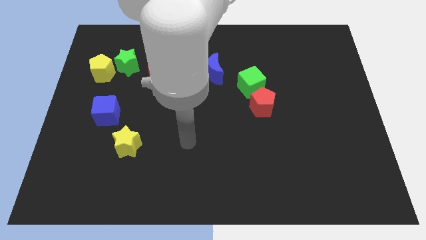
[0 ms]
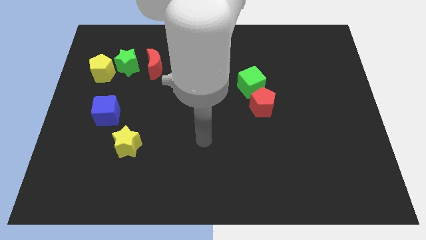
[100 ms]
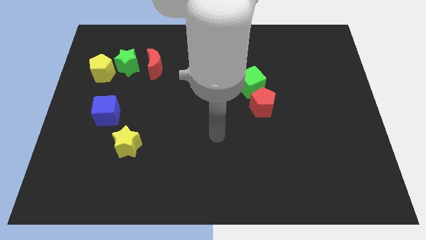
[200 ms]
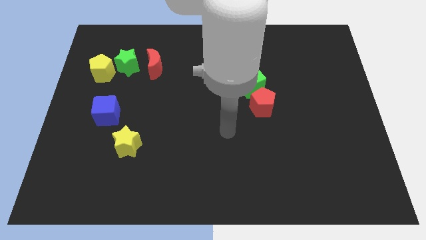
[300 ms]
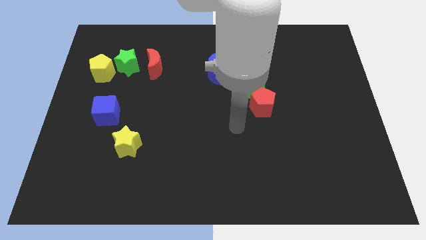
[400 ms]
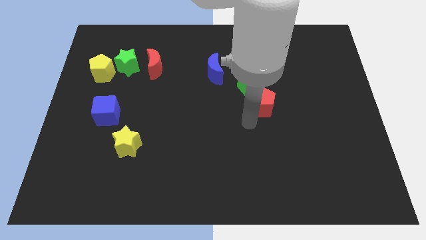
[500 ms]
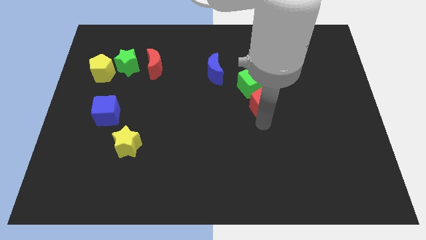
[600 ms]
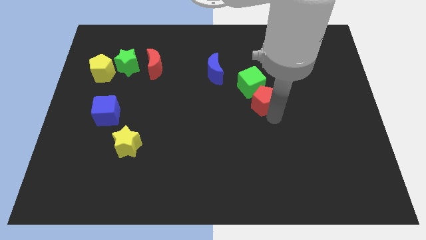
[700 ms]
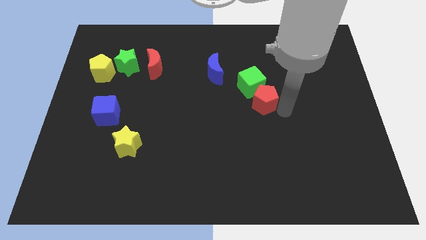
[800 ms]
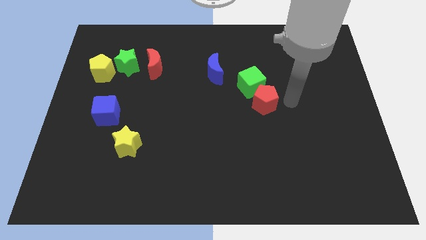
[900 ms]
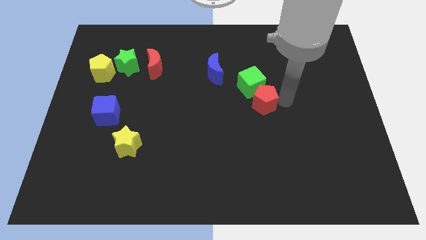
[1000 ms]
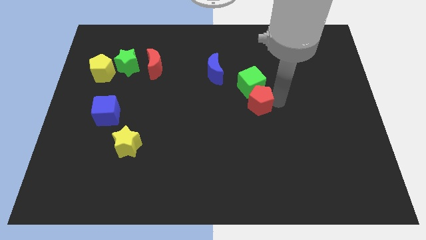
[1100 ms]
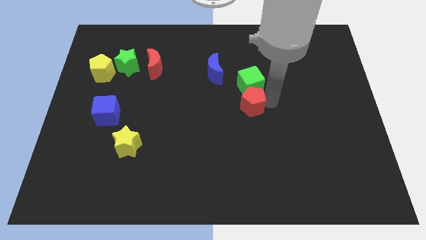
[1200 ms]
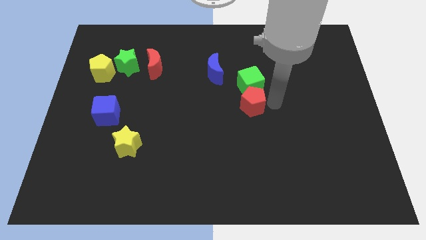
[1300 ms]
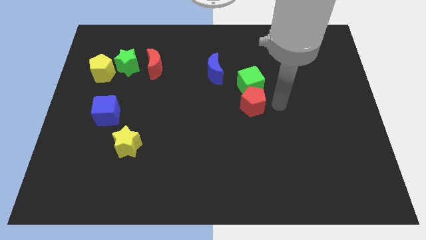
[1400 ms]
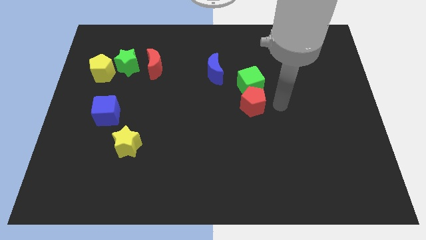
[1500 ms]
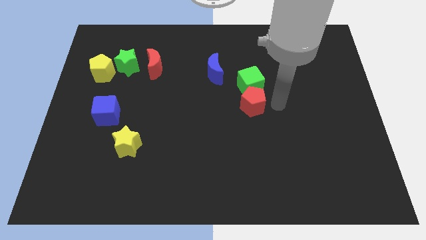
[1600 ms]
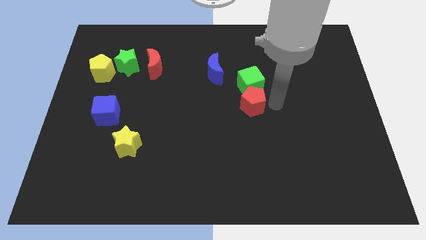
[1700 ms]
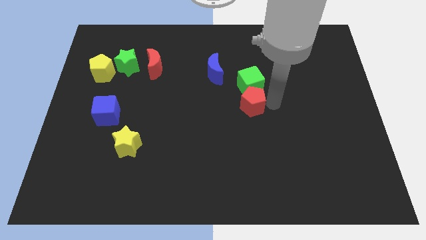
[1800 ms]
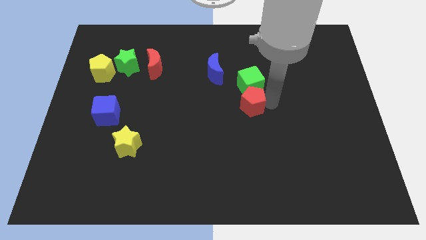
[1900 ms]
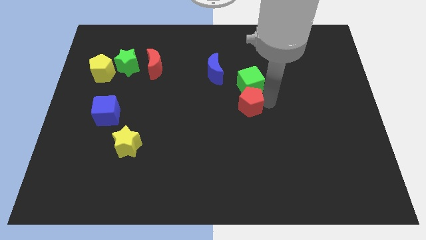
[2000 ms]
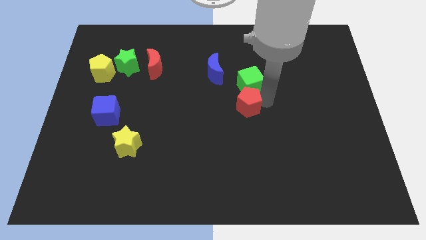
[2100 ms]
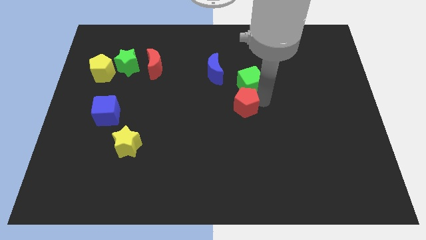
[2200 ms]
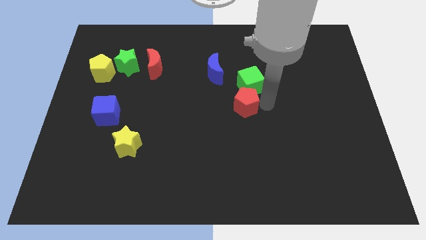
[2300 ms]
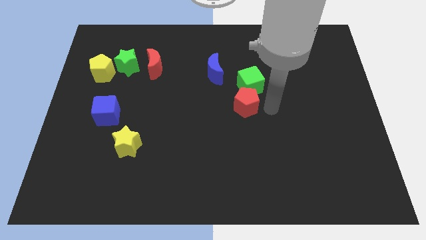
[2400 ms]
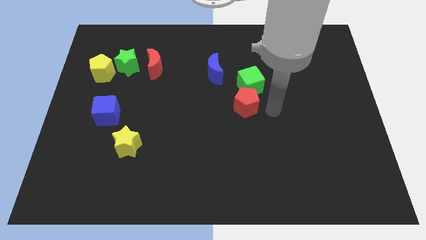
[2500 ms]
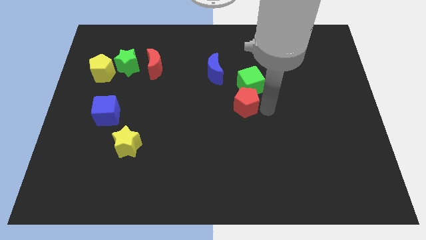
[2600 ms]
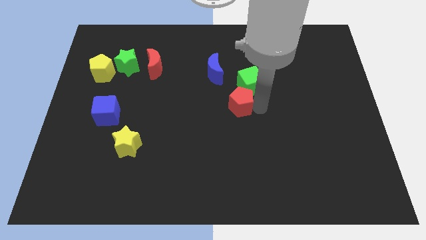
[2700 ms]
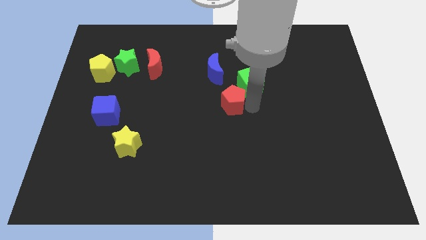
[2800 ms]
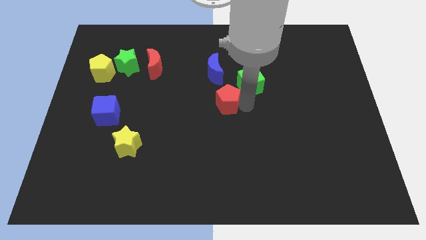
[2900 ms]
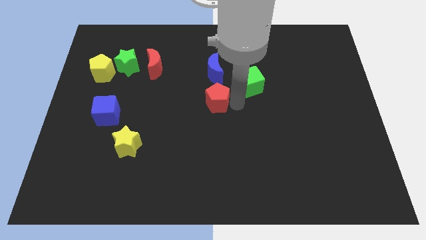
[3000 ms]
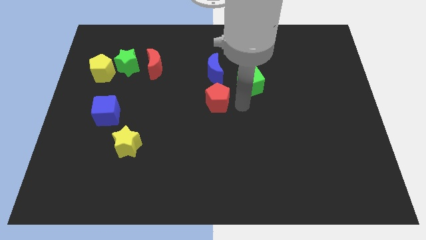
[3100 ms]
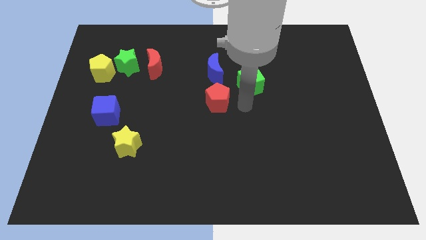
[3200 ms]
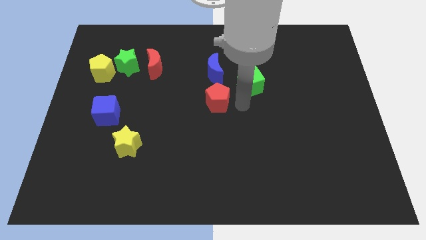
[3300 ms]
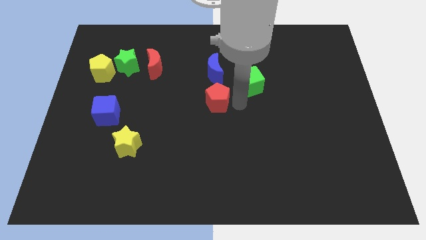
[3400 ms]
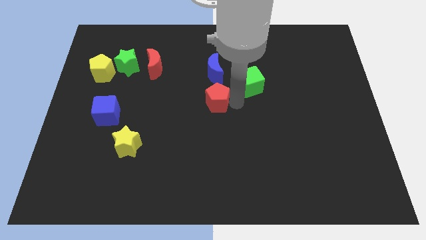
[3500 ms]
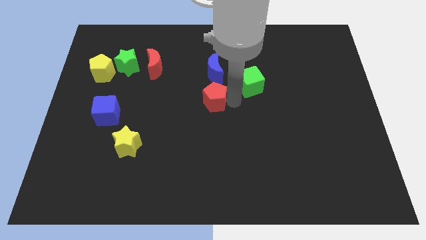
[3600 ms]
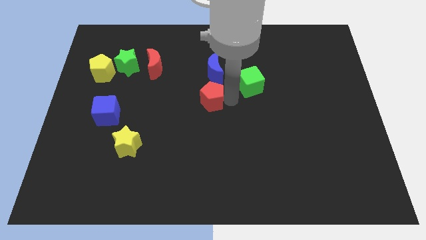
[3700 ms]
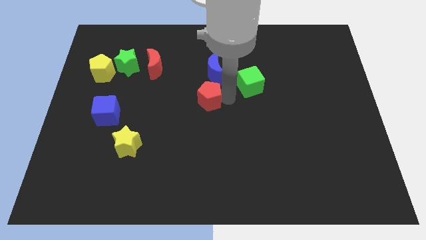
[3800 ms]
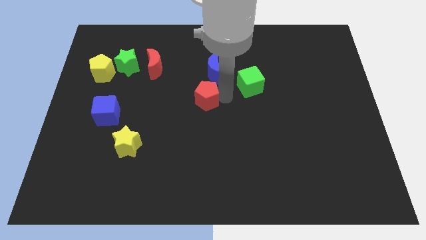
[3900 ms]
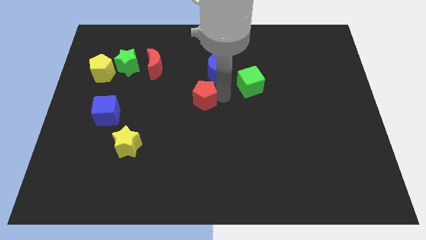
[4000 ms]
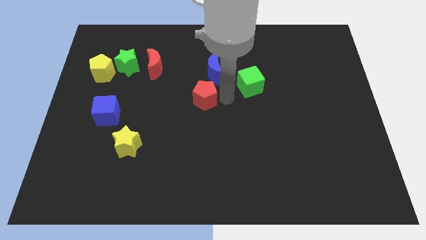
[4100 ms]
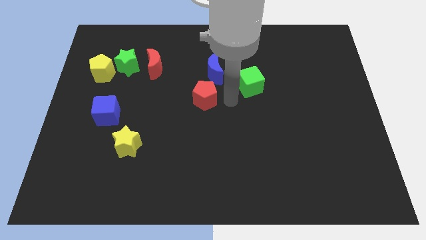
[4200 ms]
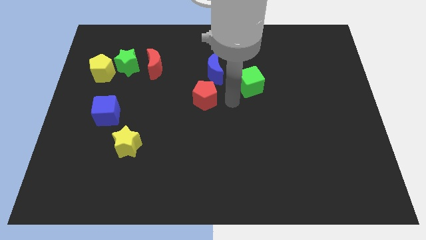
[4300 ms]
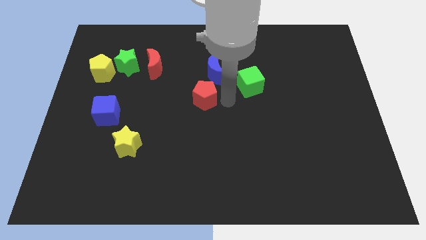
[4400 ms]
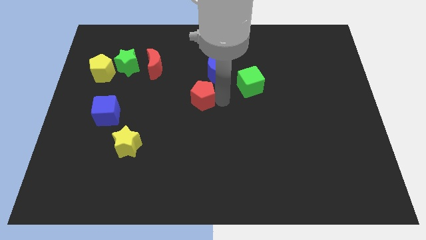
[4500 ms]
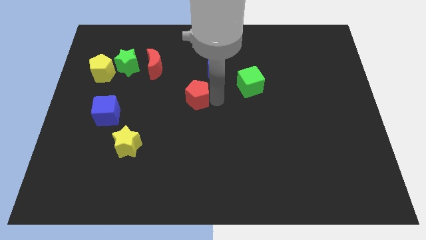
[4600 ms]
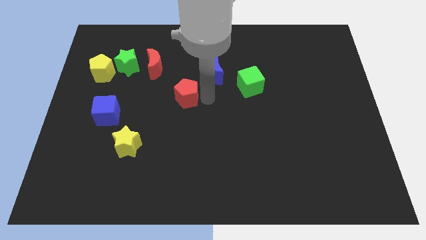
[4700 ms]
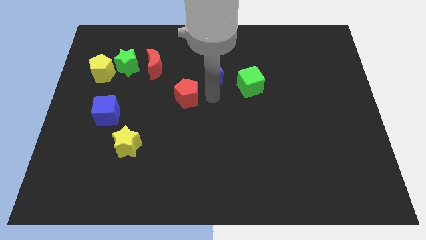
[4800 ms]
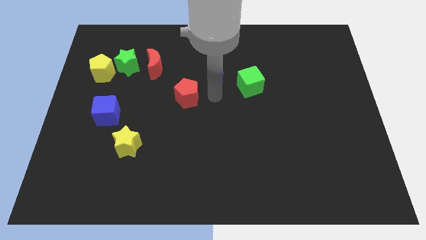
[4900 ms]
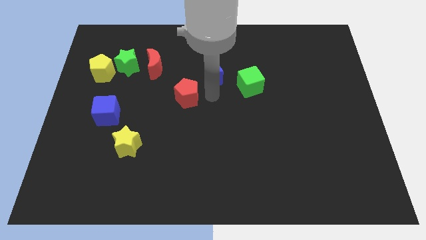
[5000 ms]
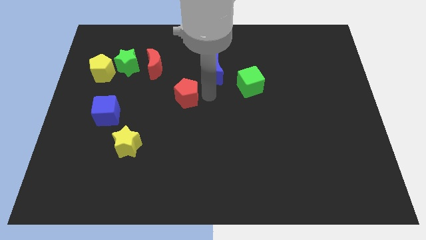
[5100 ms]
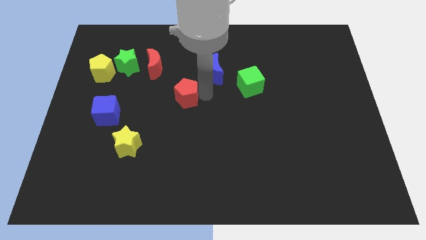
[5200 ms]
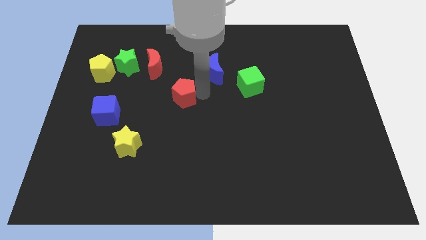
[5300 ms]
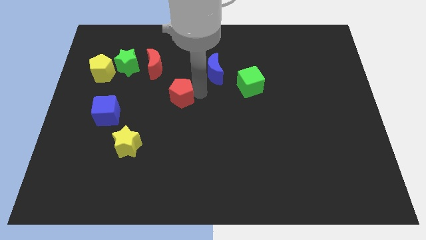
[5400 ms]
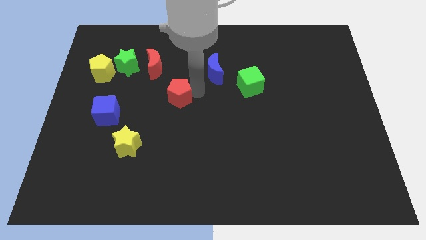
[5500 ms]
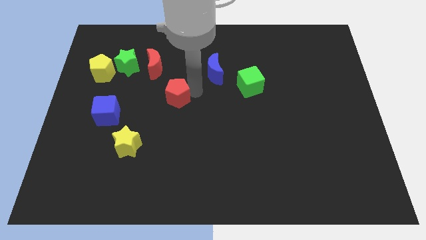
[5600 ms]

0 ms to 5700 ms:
move the red pentagon left

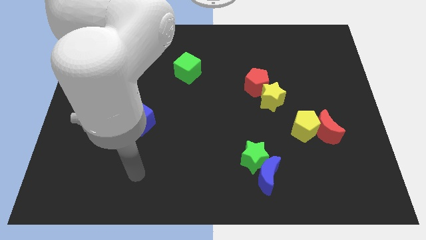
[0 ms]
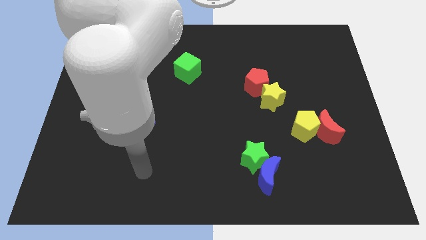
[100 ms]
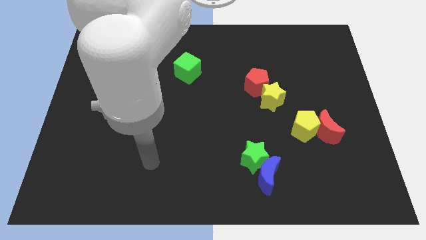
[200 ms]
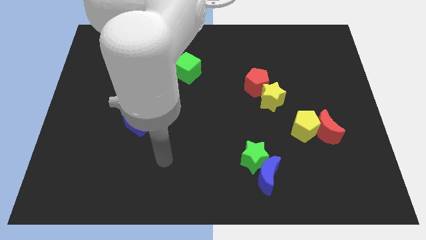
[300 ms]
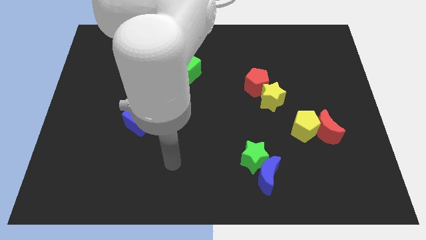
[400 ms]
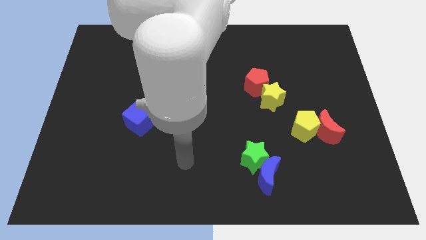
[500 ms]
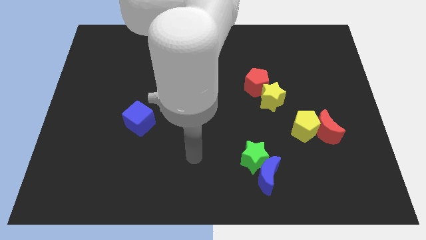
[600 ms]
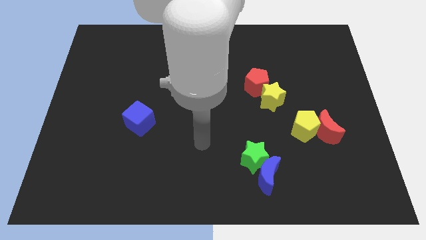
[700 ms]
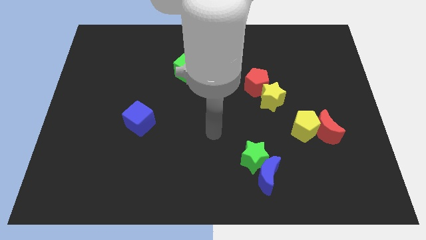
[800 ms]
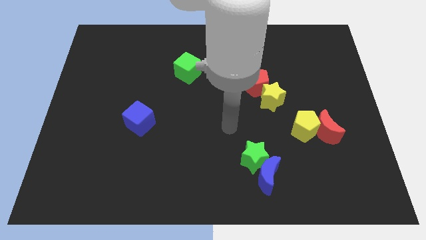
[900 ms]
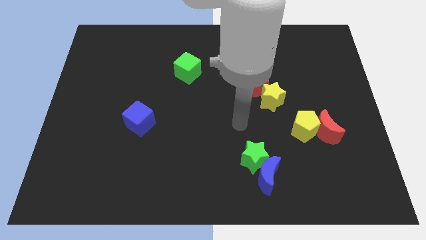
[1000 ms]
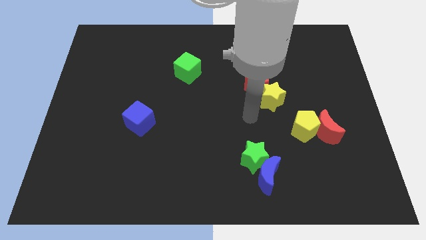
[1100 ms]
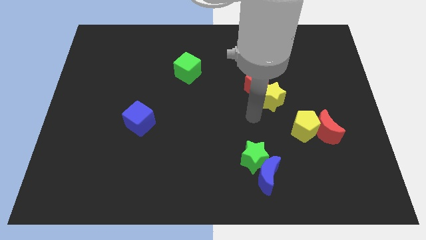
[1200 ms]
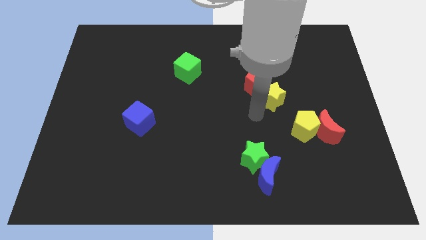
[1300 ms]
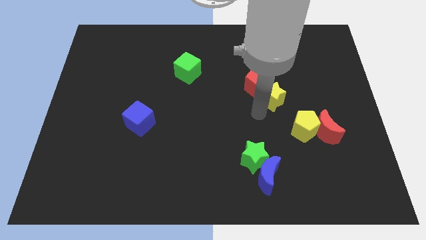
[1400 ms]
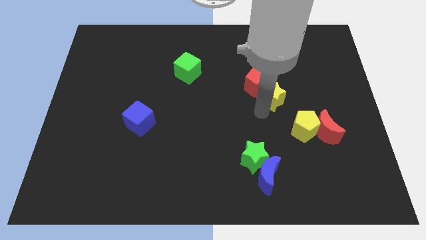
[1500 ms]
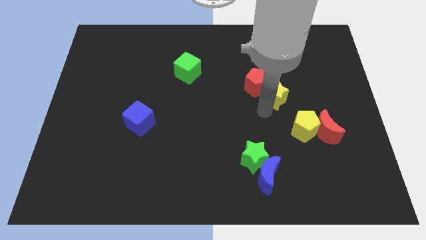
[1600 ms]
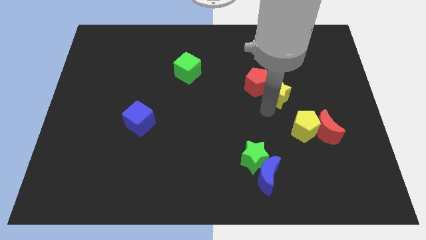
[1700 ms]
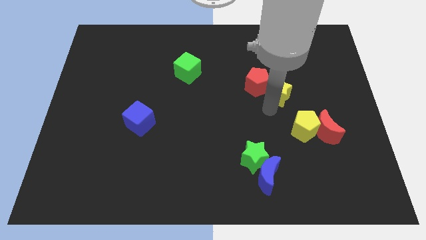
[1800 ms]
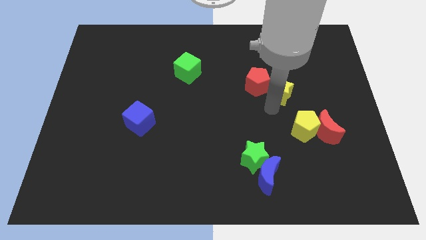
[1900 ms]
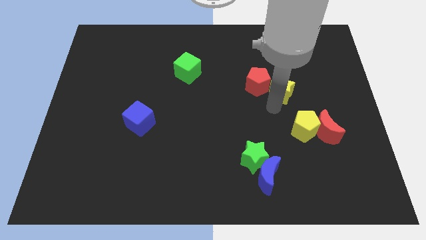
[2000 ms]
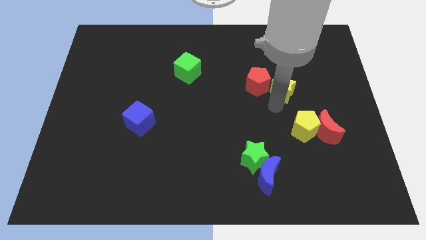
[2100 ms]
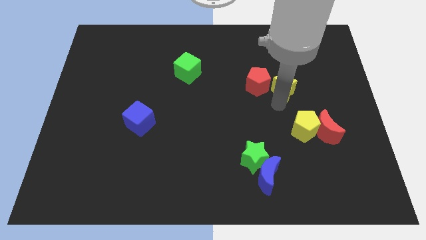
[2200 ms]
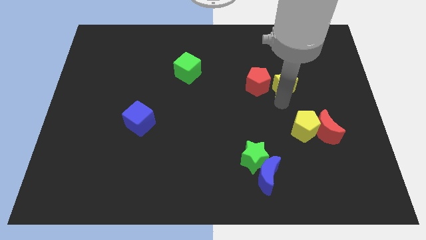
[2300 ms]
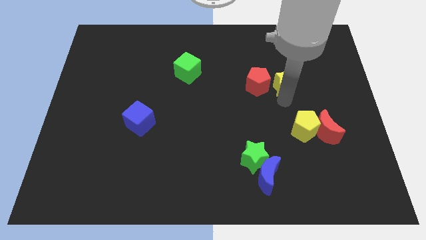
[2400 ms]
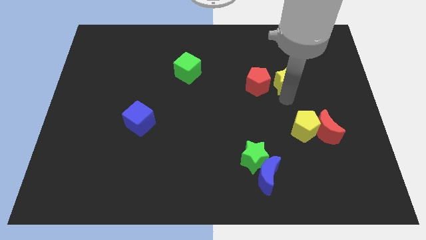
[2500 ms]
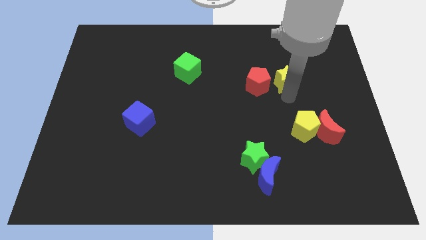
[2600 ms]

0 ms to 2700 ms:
slide the yellow star up and to the right diagonally a little
